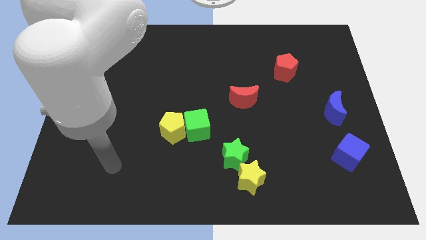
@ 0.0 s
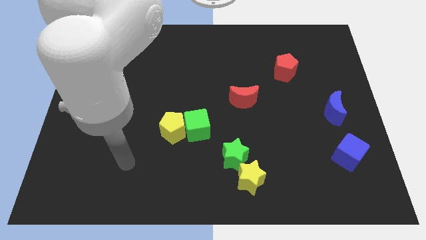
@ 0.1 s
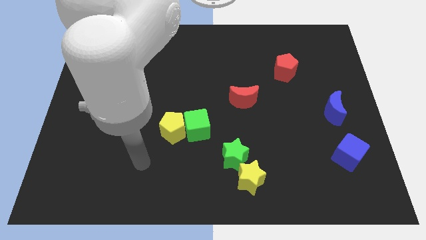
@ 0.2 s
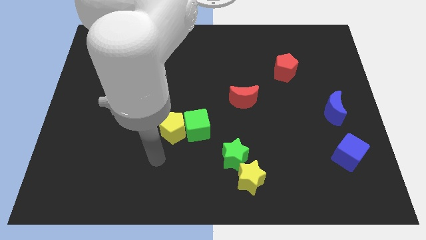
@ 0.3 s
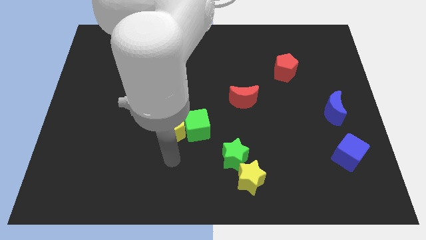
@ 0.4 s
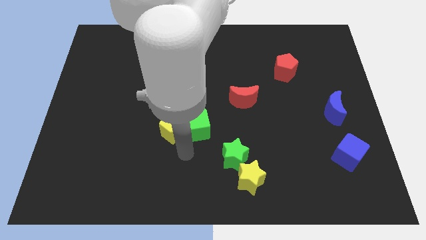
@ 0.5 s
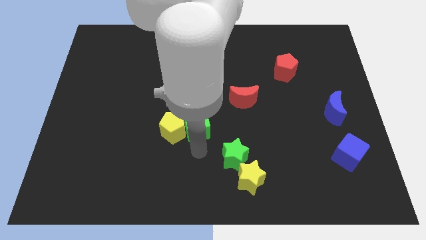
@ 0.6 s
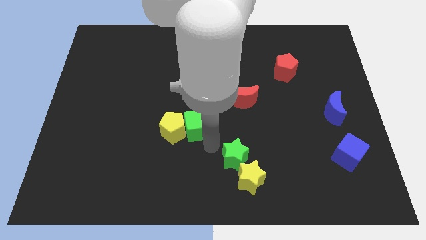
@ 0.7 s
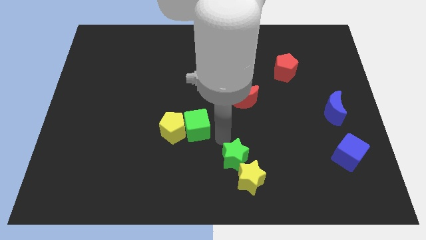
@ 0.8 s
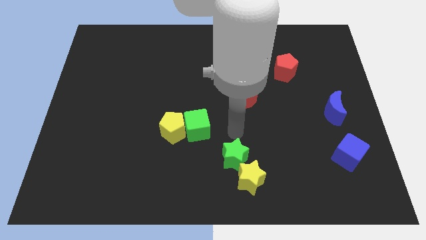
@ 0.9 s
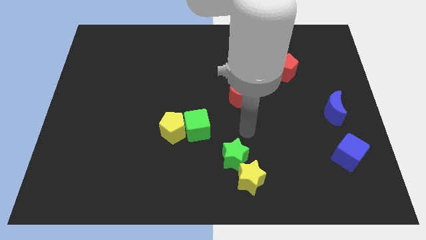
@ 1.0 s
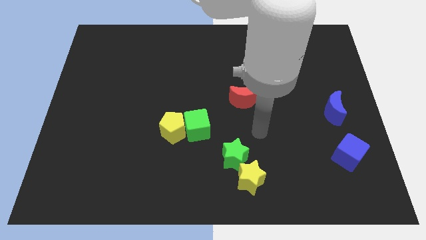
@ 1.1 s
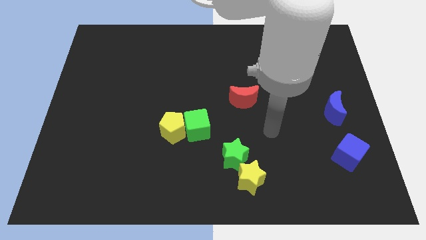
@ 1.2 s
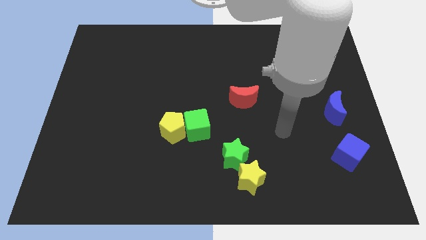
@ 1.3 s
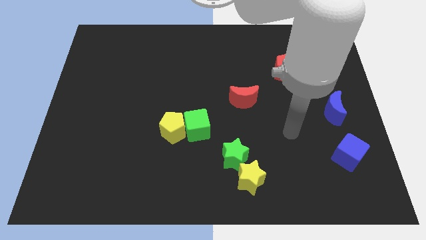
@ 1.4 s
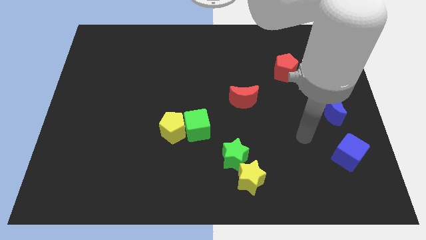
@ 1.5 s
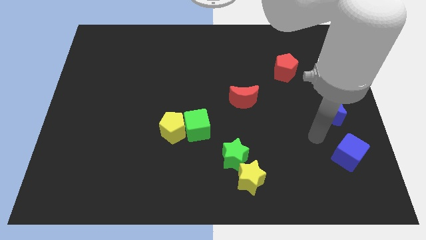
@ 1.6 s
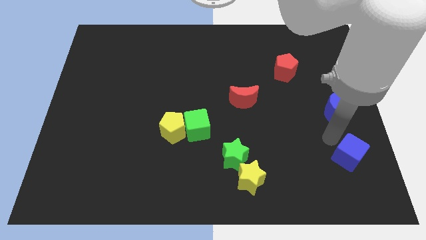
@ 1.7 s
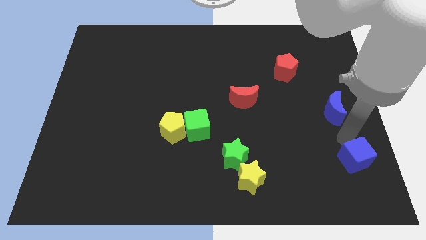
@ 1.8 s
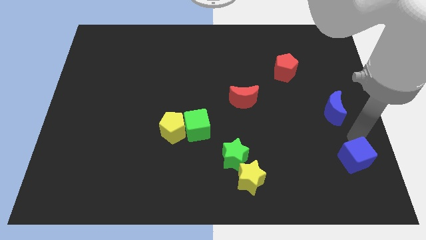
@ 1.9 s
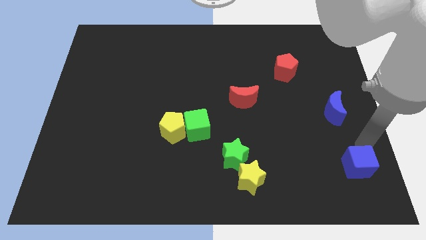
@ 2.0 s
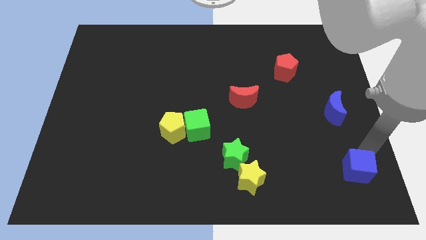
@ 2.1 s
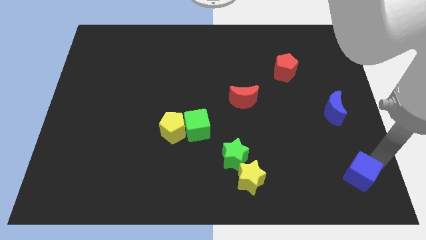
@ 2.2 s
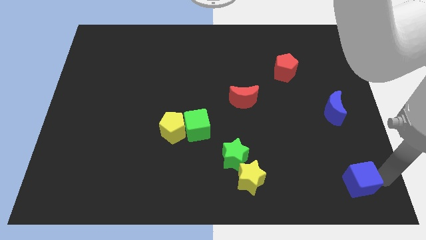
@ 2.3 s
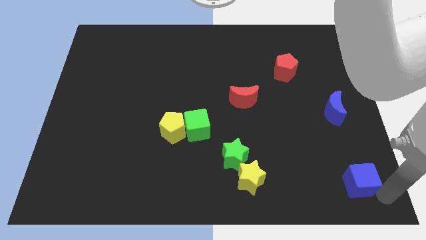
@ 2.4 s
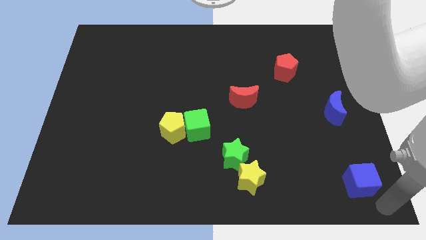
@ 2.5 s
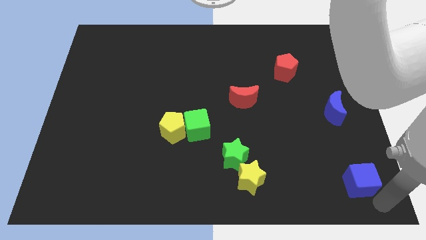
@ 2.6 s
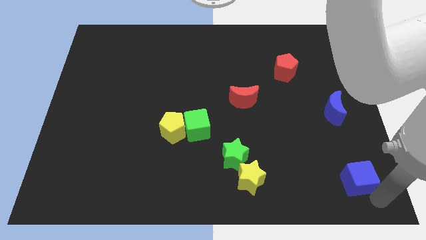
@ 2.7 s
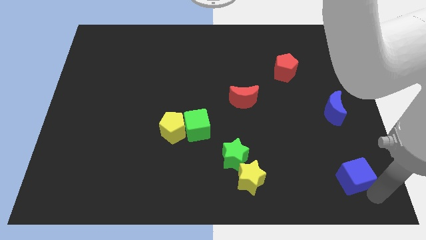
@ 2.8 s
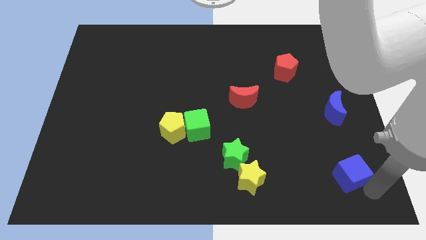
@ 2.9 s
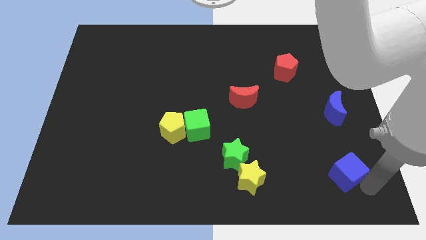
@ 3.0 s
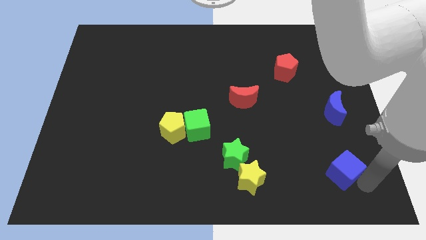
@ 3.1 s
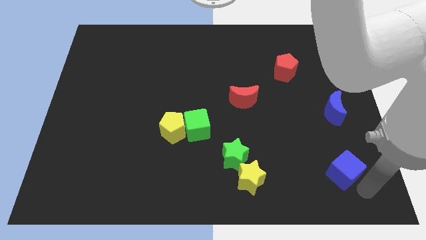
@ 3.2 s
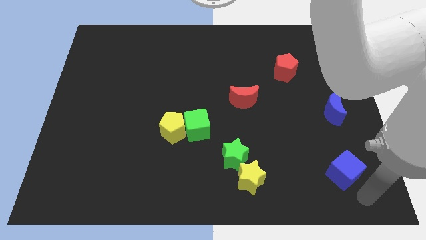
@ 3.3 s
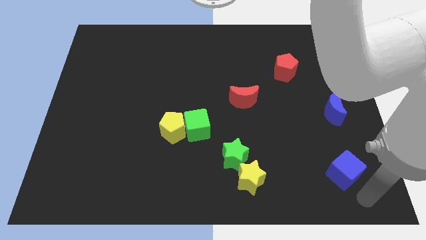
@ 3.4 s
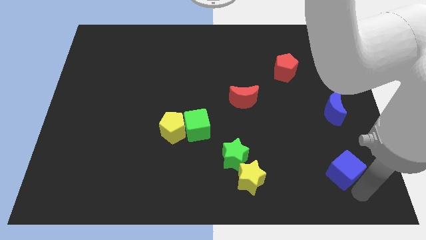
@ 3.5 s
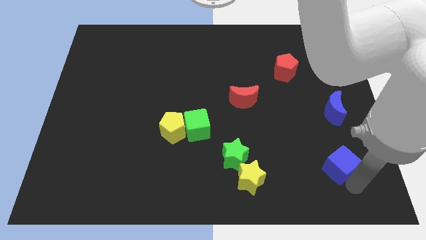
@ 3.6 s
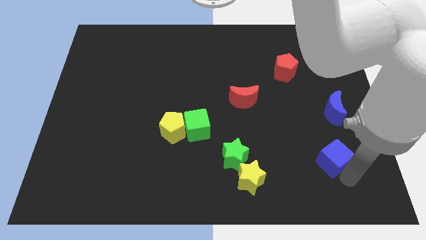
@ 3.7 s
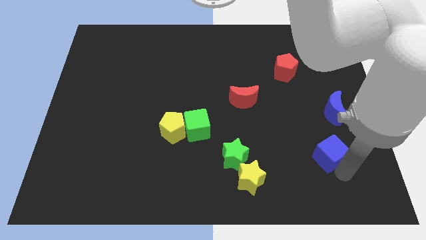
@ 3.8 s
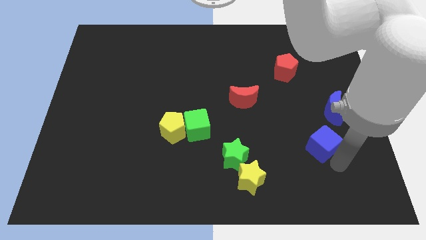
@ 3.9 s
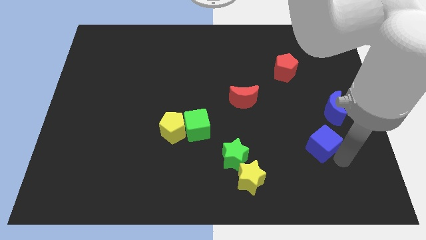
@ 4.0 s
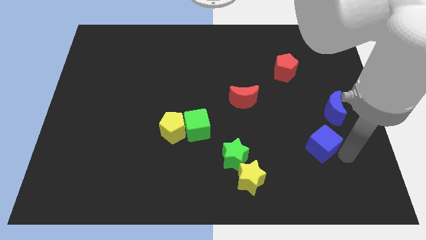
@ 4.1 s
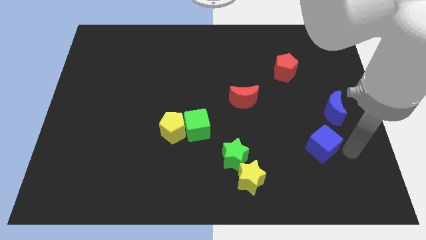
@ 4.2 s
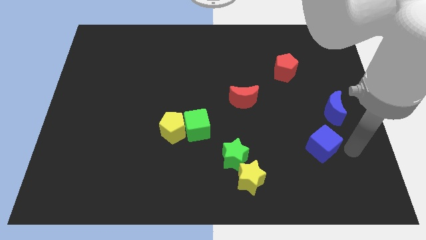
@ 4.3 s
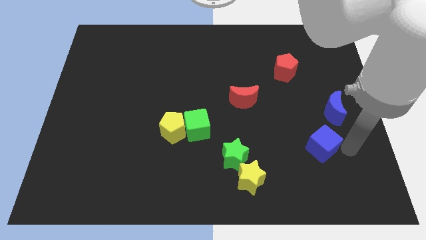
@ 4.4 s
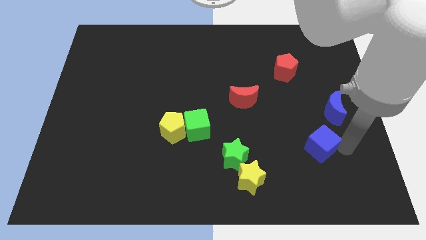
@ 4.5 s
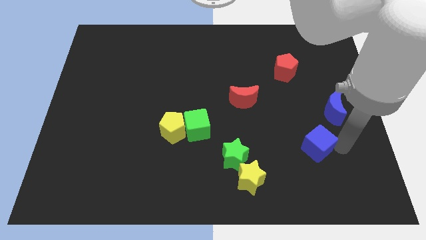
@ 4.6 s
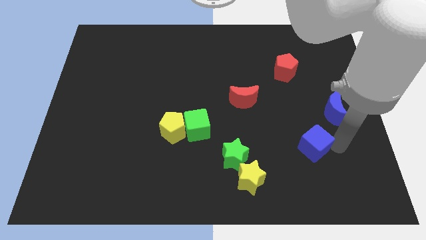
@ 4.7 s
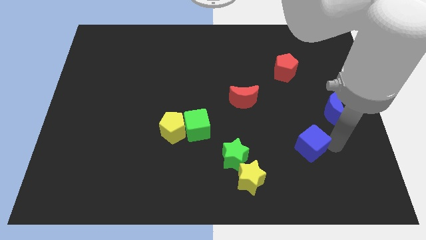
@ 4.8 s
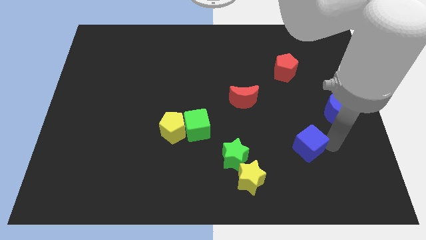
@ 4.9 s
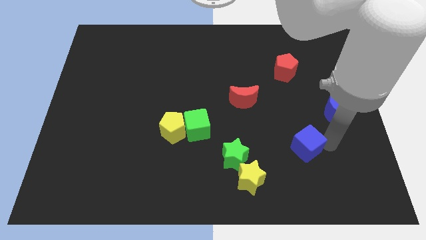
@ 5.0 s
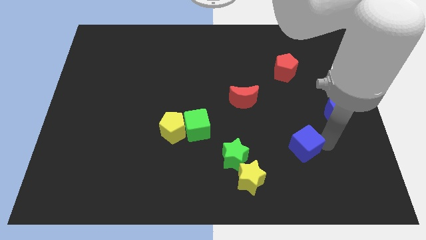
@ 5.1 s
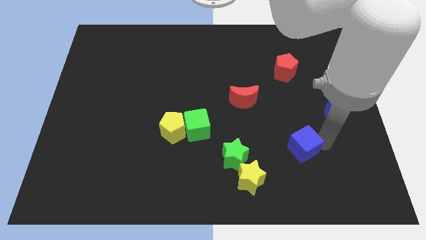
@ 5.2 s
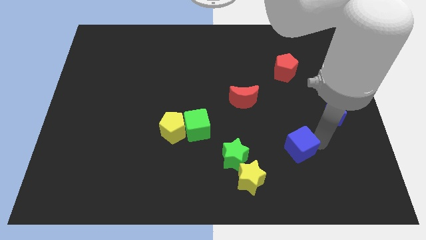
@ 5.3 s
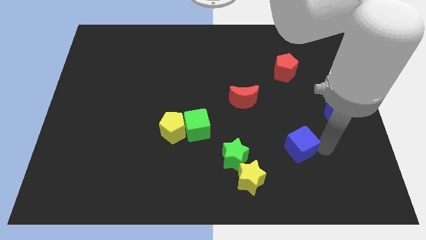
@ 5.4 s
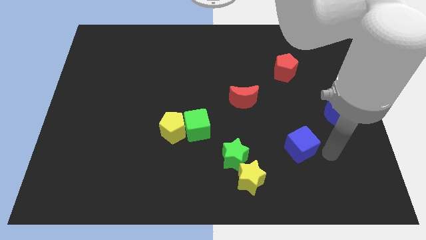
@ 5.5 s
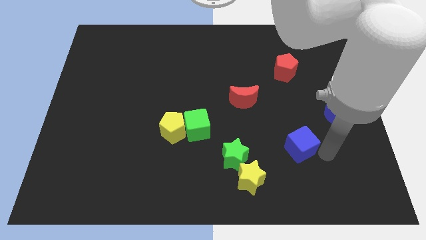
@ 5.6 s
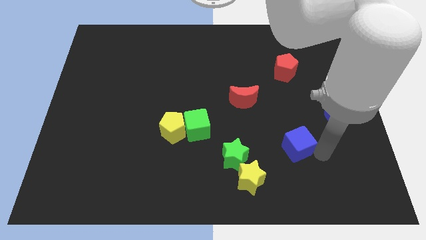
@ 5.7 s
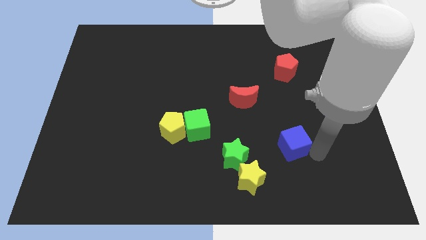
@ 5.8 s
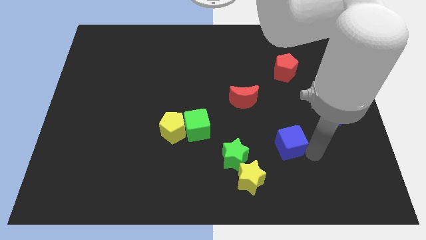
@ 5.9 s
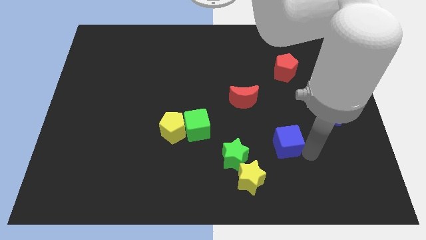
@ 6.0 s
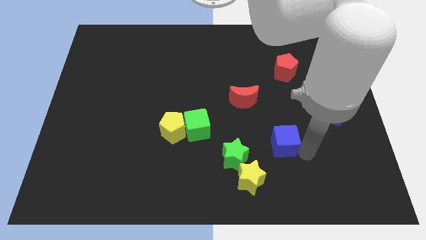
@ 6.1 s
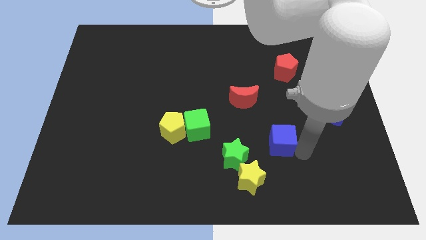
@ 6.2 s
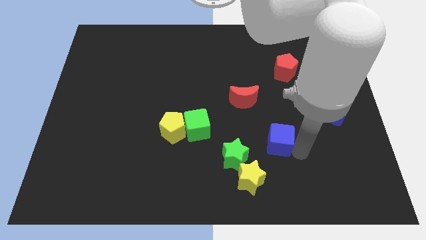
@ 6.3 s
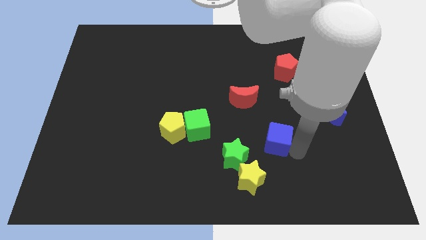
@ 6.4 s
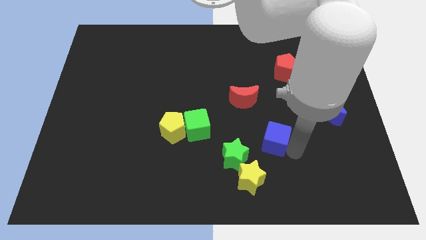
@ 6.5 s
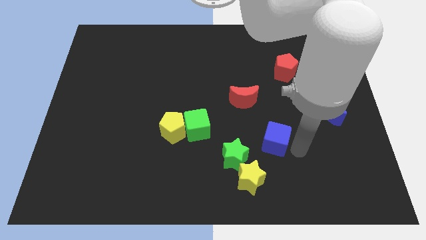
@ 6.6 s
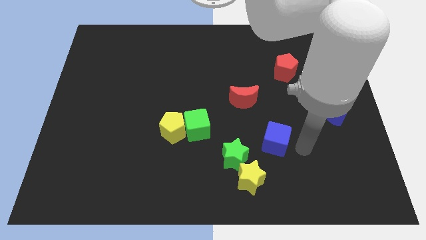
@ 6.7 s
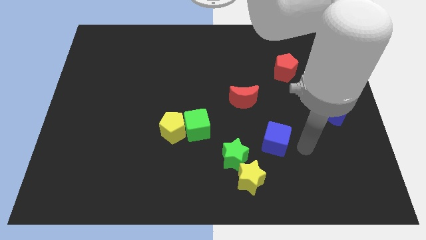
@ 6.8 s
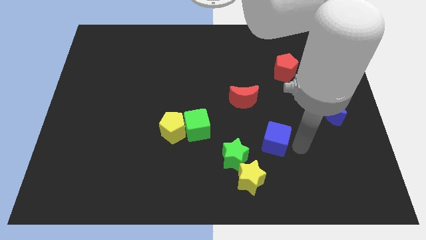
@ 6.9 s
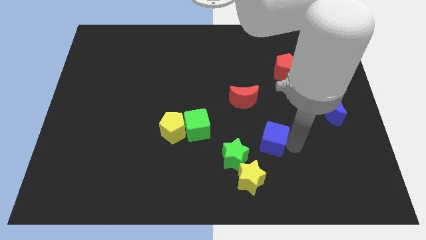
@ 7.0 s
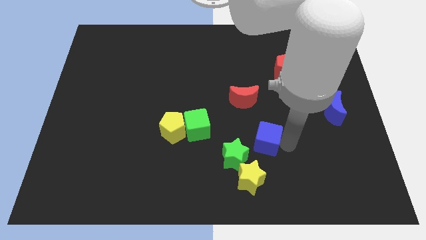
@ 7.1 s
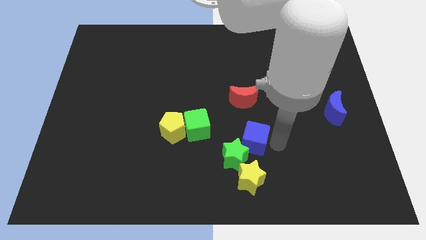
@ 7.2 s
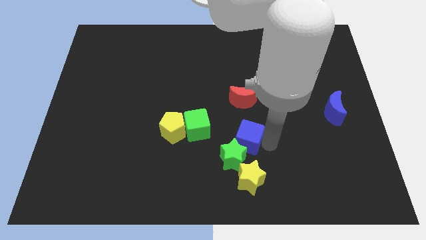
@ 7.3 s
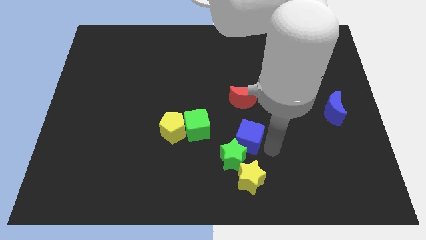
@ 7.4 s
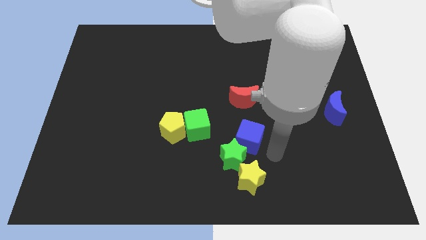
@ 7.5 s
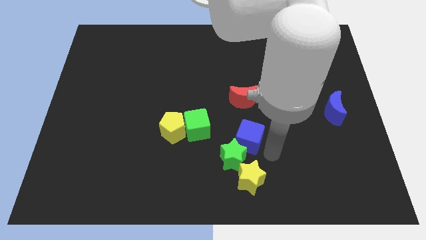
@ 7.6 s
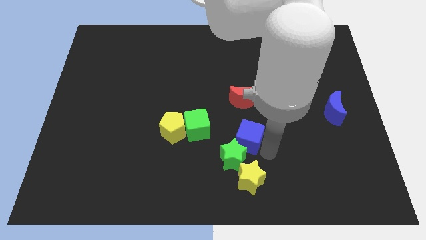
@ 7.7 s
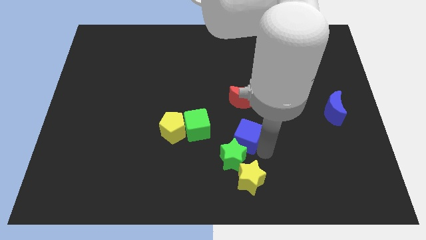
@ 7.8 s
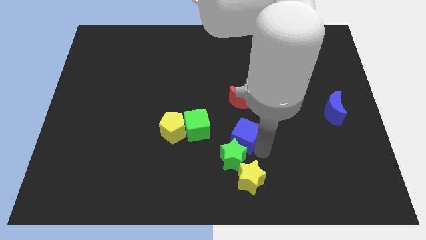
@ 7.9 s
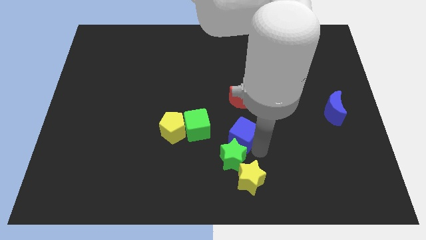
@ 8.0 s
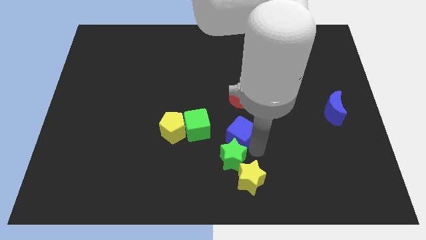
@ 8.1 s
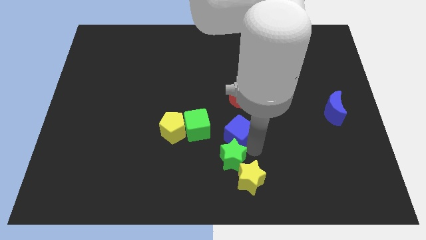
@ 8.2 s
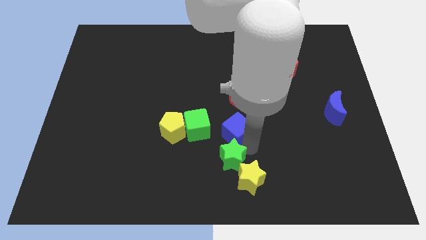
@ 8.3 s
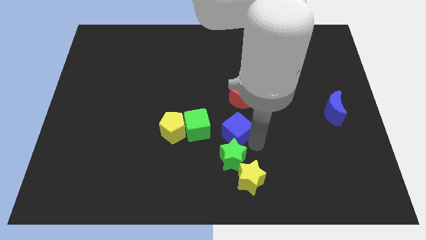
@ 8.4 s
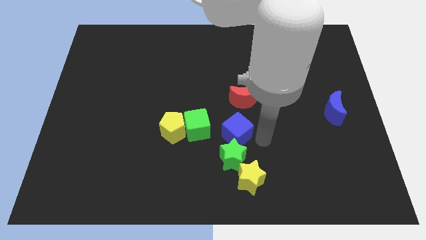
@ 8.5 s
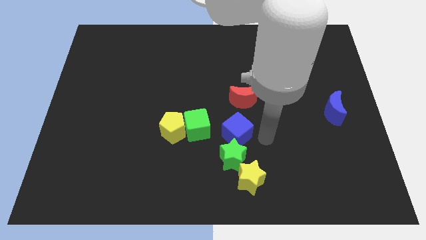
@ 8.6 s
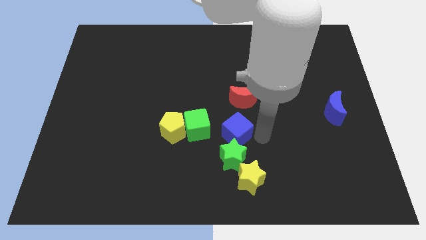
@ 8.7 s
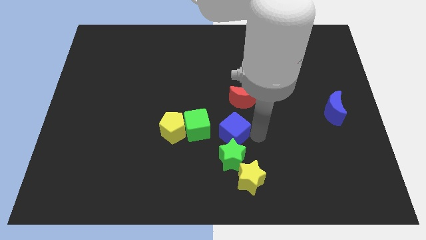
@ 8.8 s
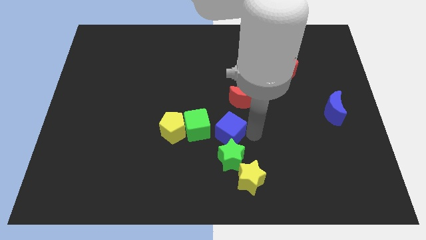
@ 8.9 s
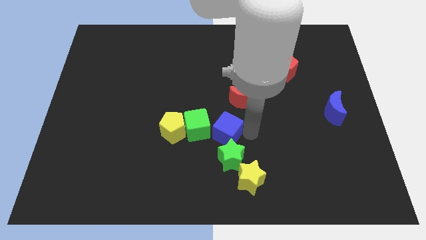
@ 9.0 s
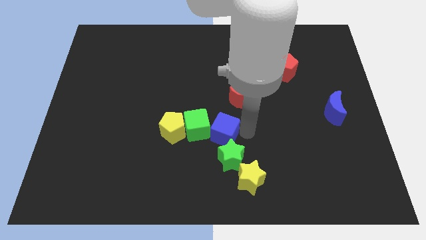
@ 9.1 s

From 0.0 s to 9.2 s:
put the blue cube to the green cube
